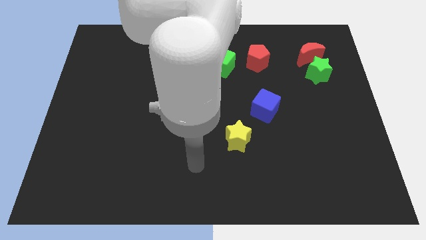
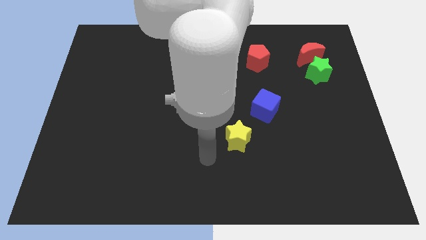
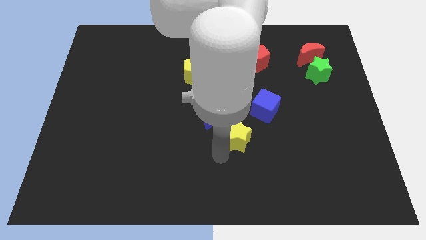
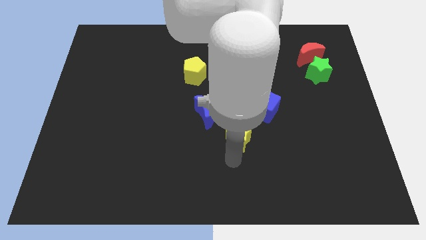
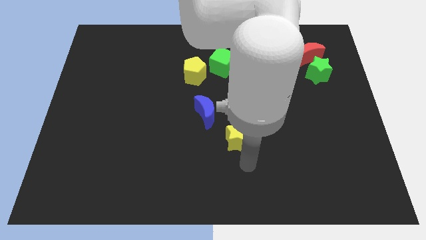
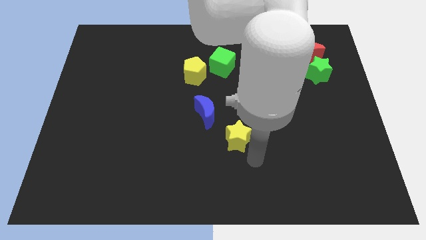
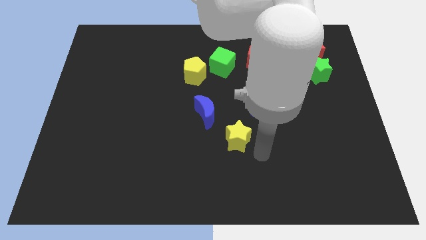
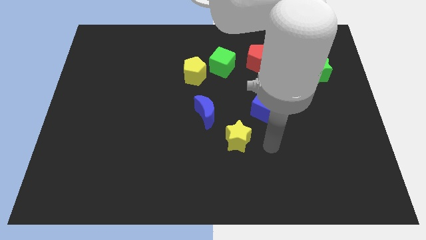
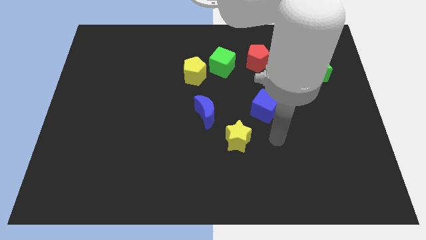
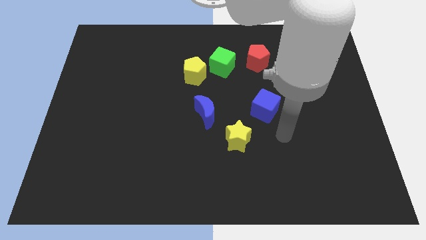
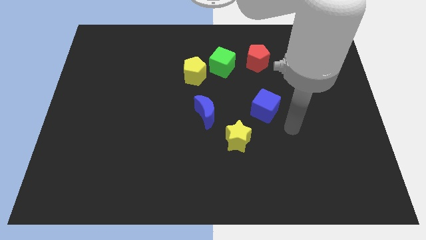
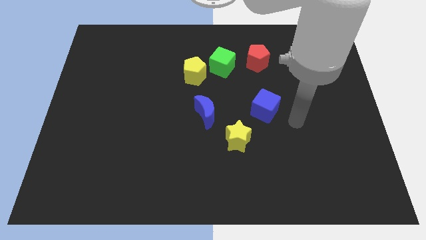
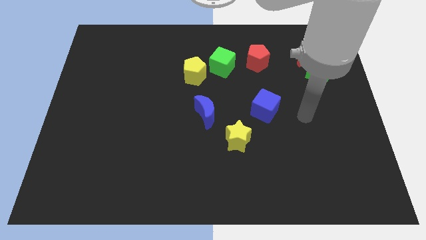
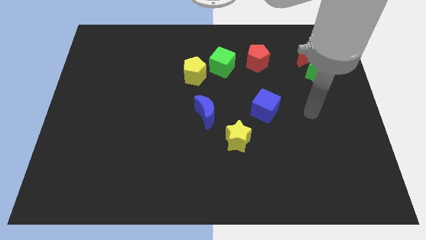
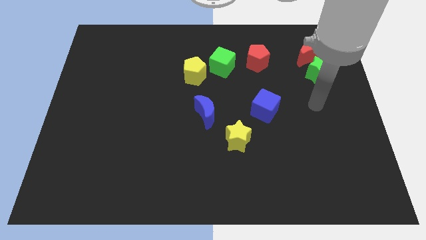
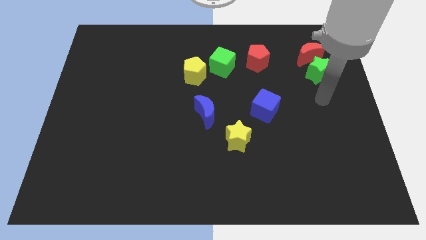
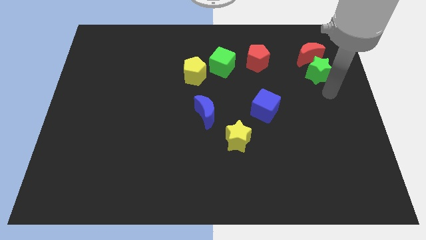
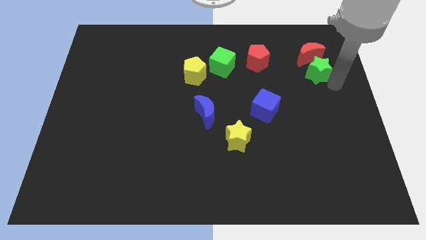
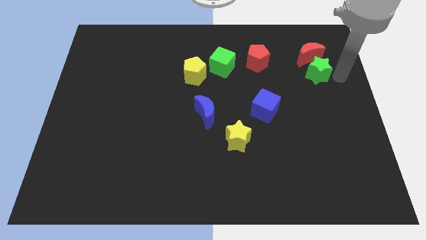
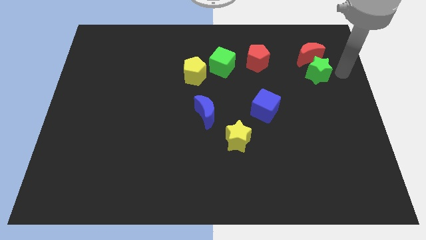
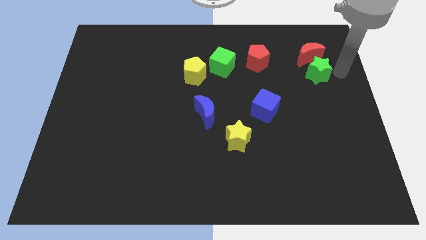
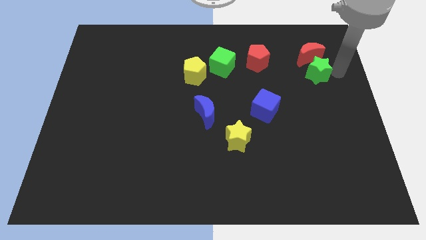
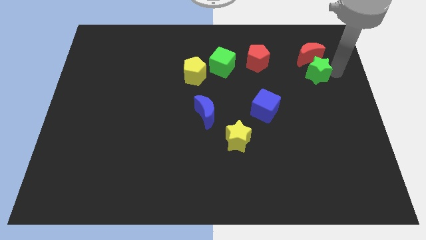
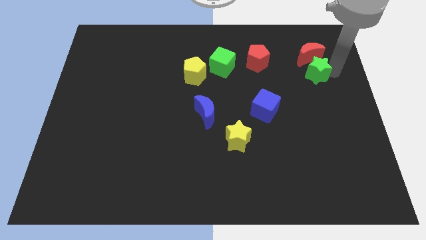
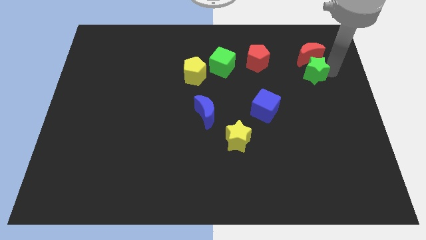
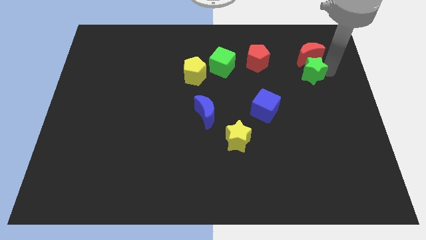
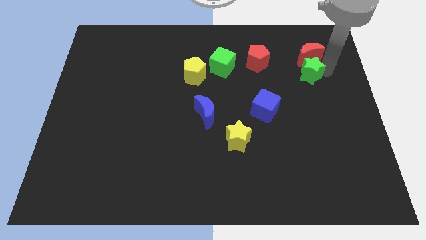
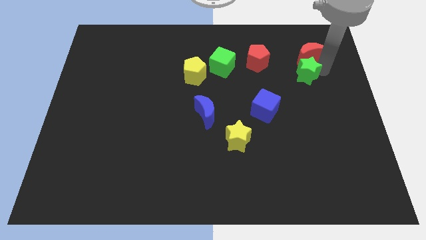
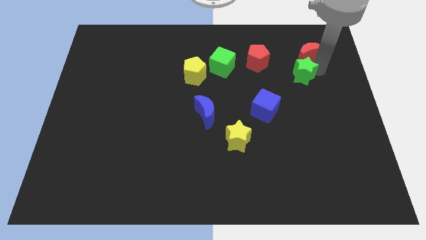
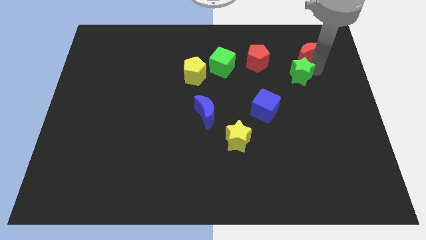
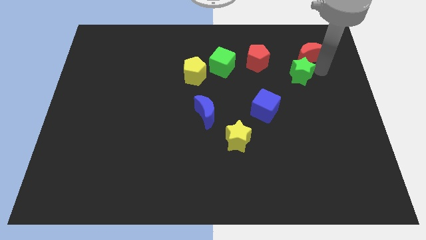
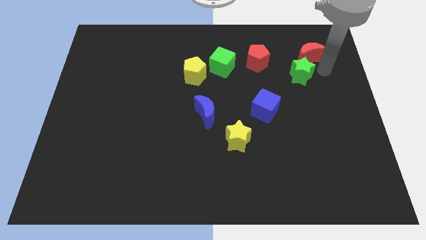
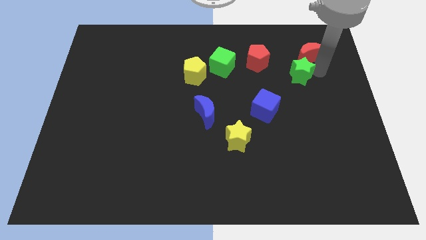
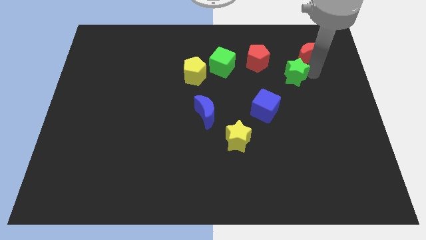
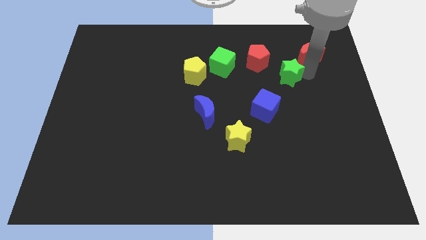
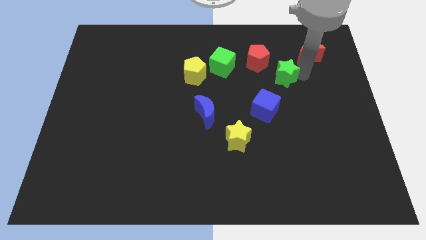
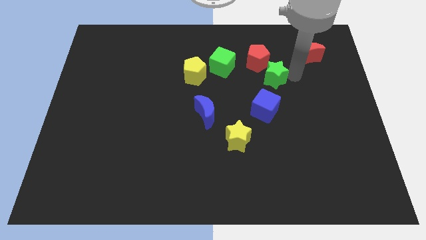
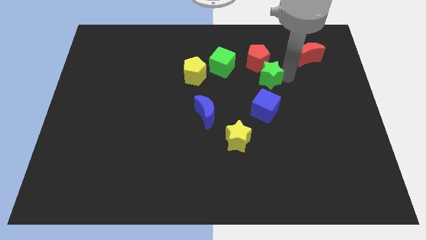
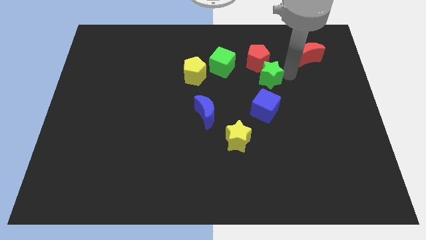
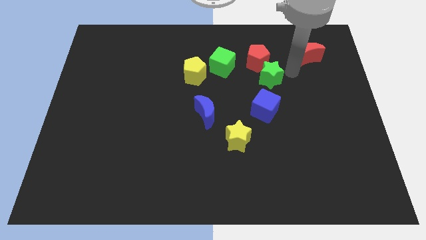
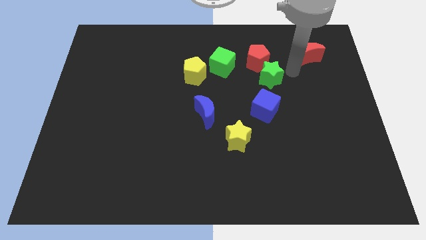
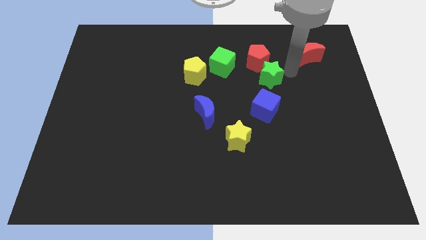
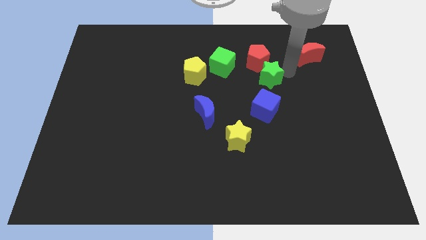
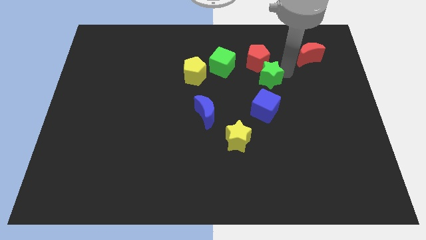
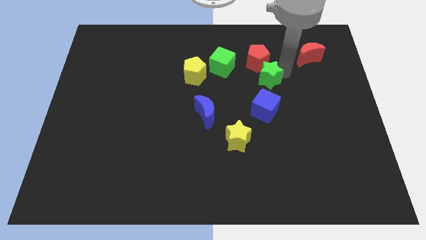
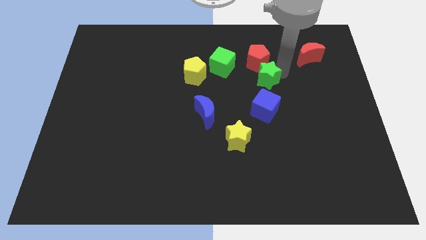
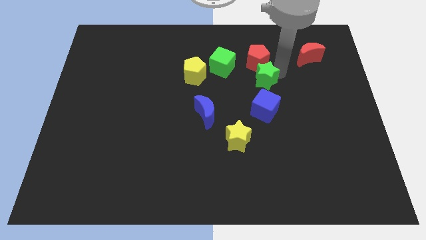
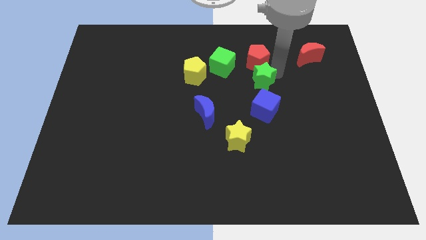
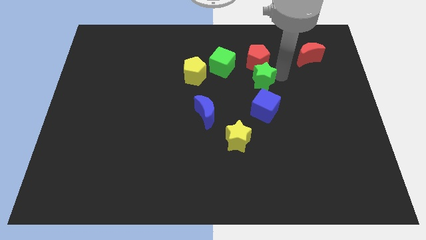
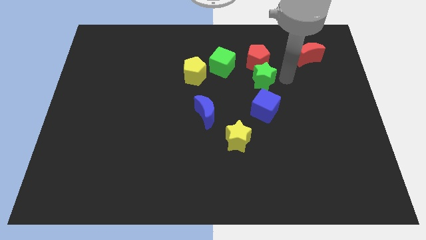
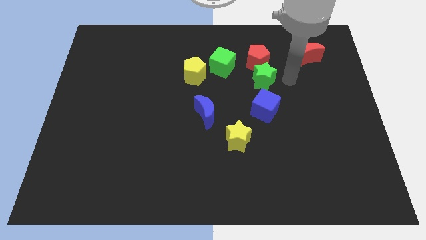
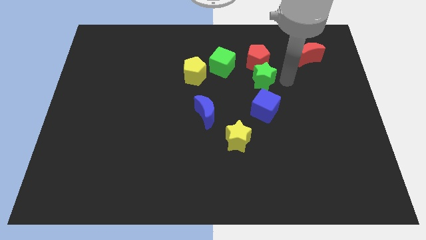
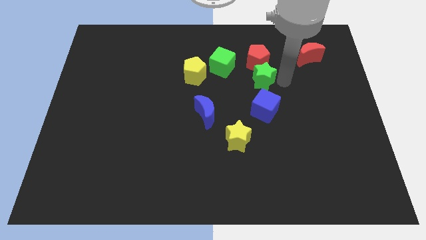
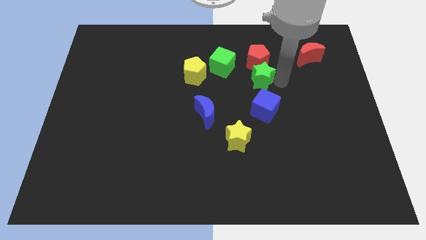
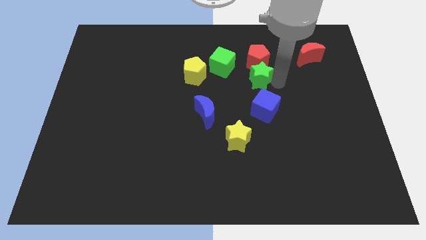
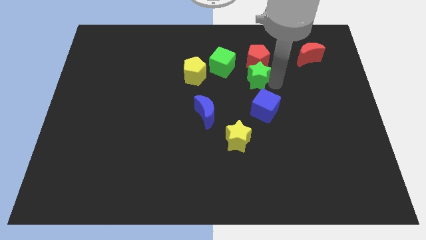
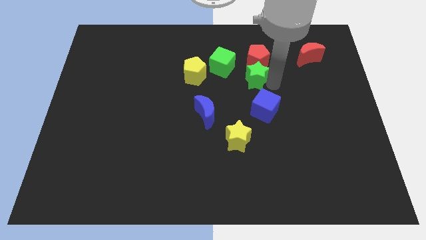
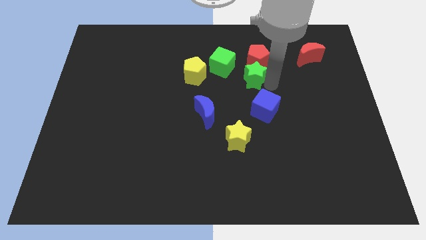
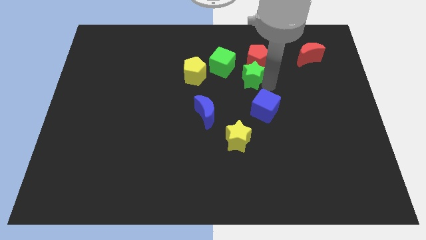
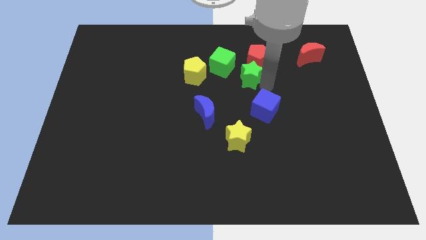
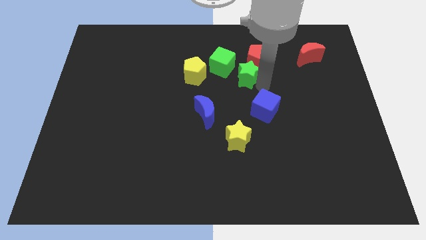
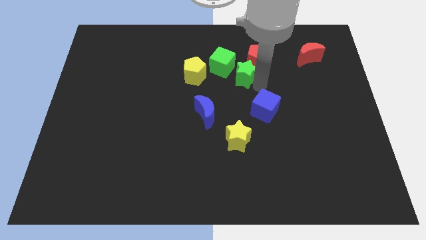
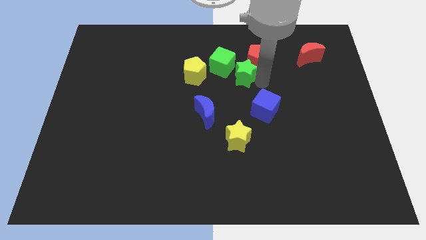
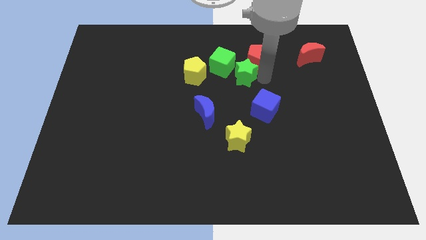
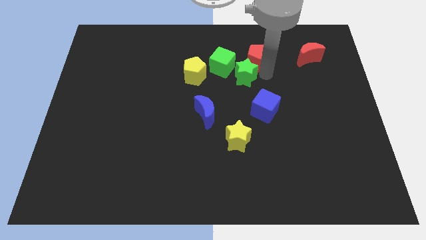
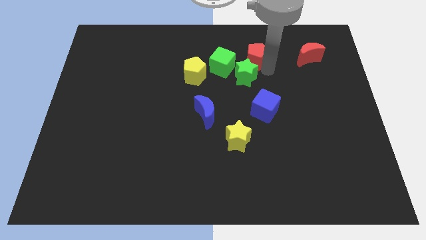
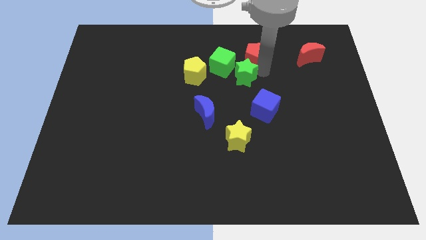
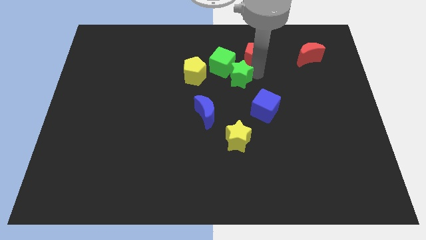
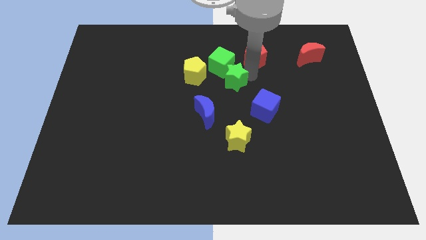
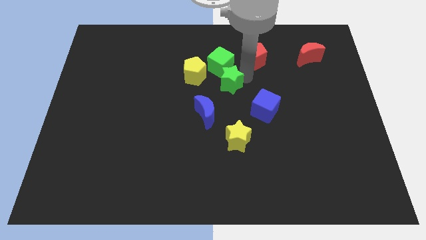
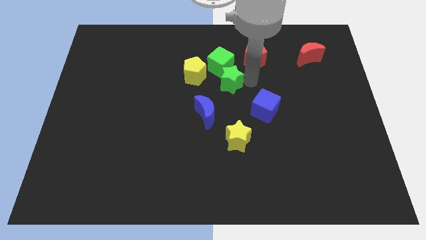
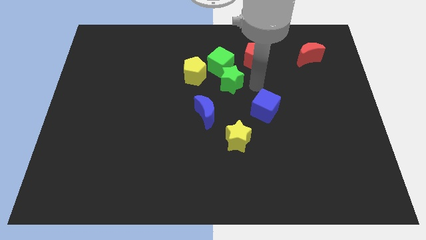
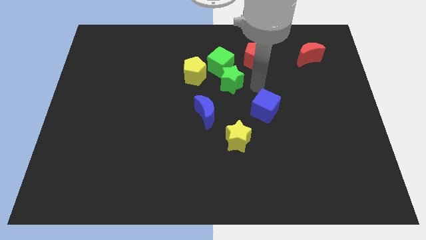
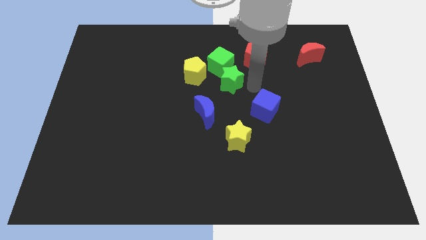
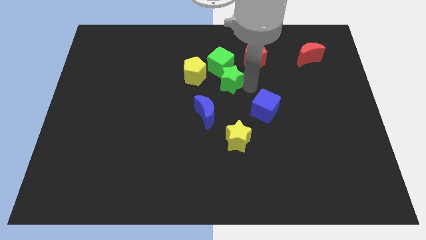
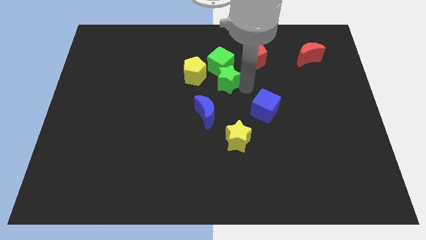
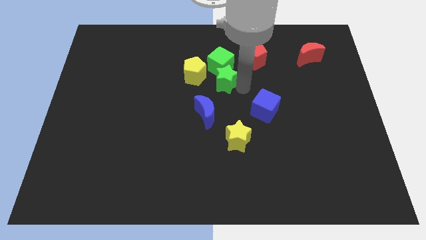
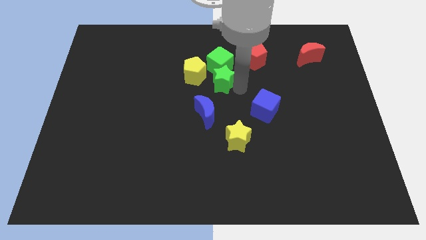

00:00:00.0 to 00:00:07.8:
slide the green star diagonally down and to the left of the green cube
